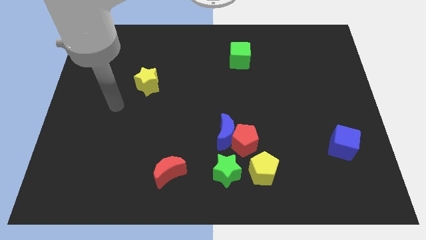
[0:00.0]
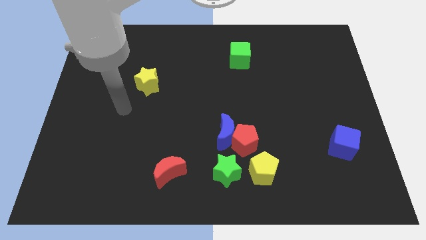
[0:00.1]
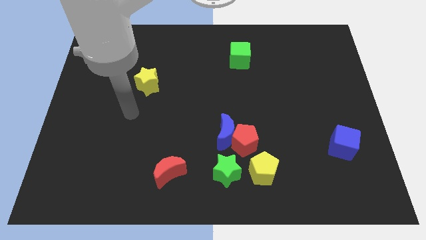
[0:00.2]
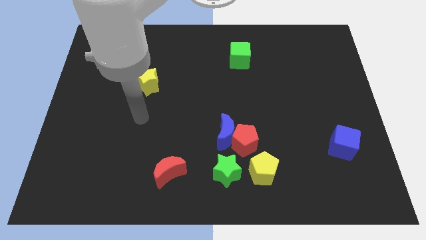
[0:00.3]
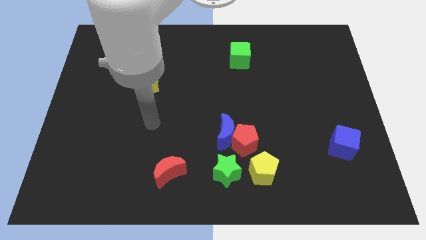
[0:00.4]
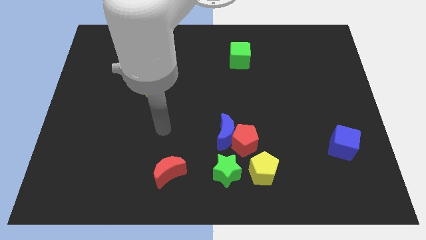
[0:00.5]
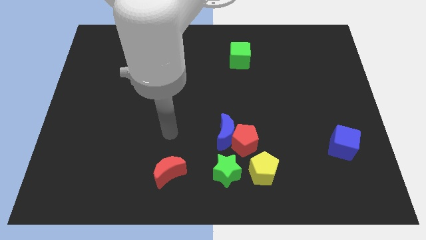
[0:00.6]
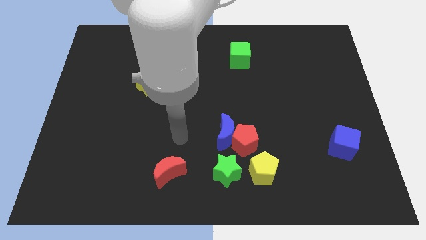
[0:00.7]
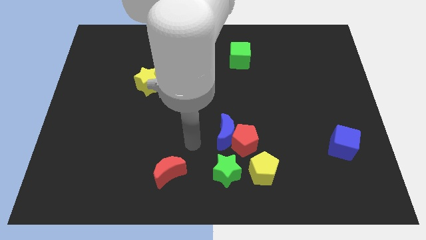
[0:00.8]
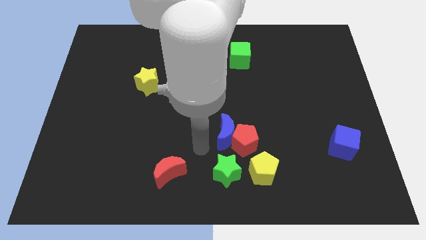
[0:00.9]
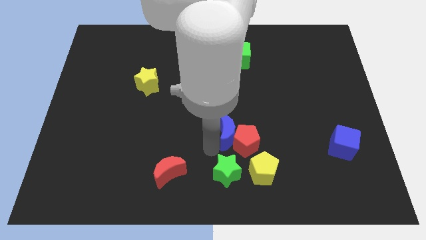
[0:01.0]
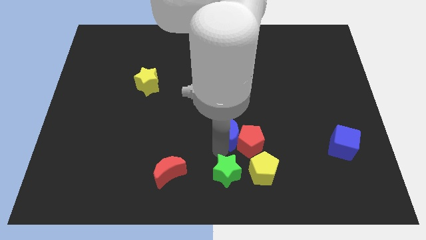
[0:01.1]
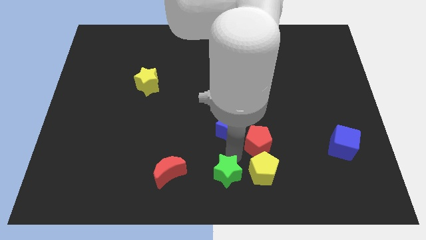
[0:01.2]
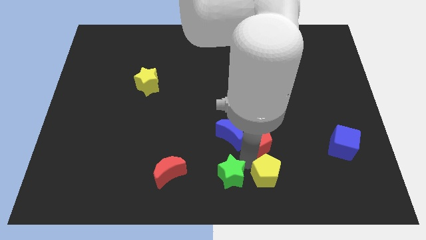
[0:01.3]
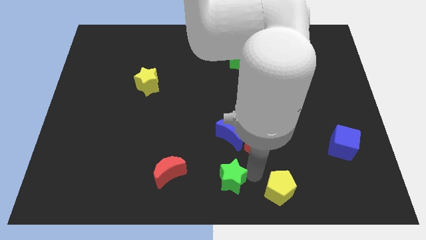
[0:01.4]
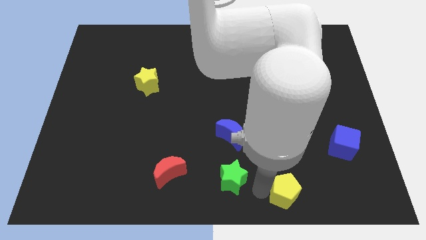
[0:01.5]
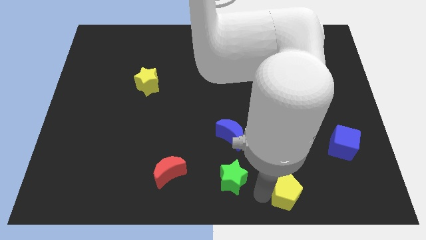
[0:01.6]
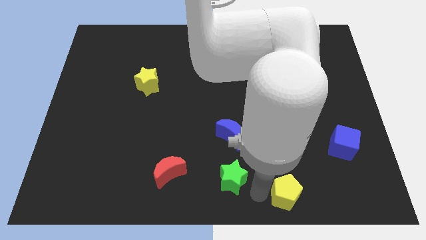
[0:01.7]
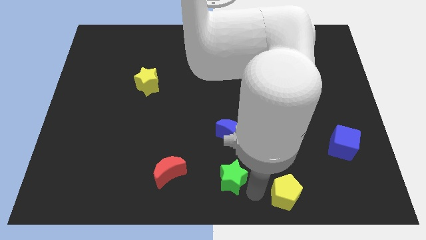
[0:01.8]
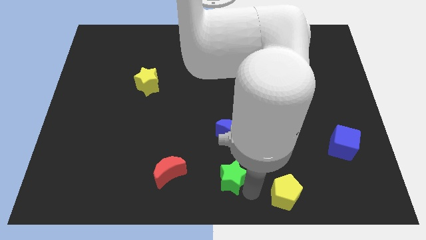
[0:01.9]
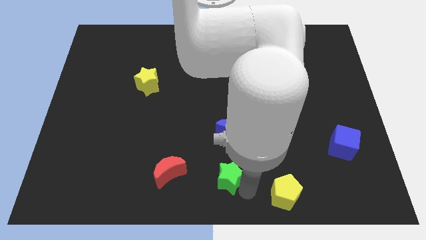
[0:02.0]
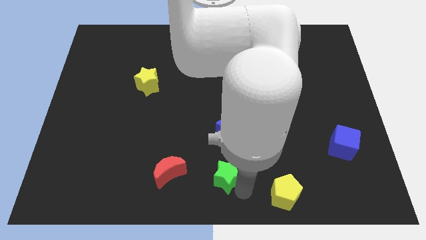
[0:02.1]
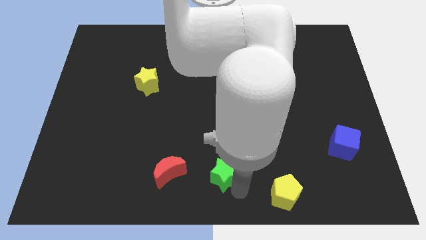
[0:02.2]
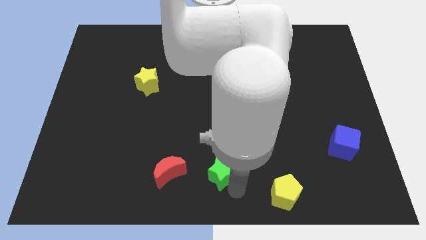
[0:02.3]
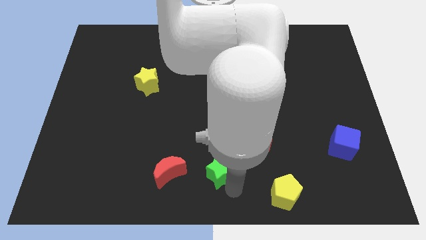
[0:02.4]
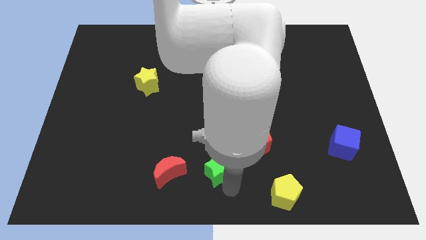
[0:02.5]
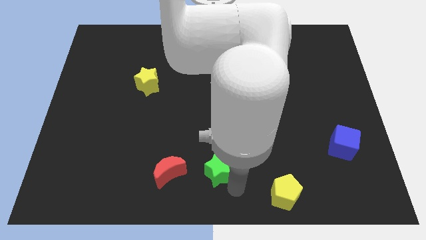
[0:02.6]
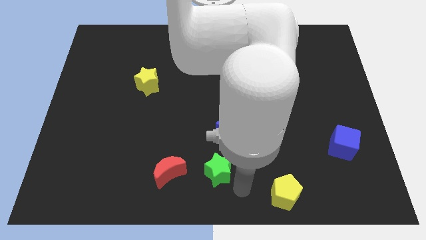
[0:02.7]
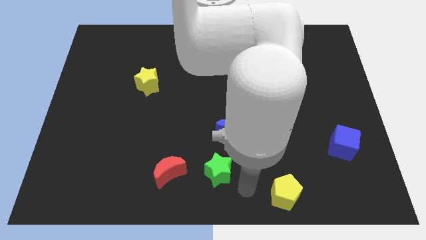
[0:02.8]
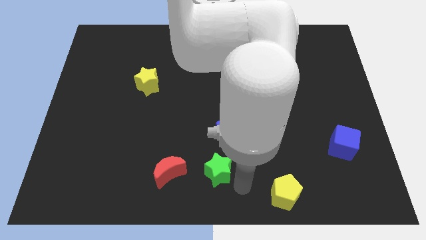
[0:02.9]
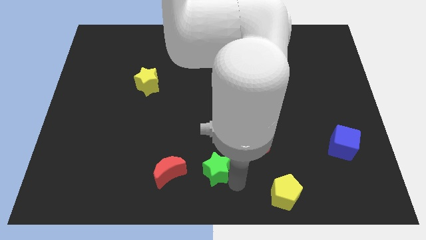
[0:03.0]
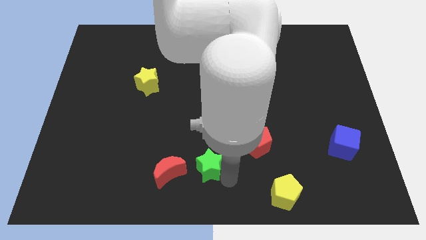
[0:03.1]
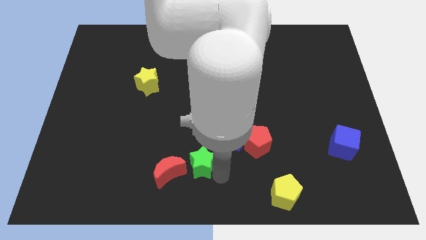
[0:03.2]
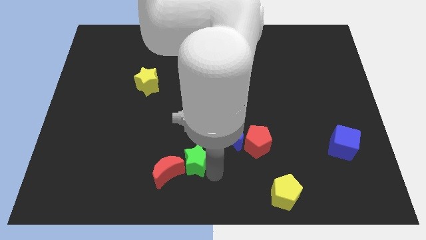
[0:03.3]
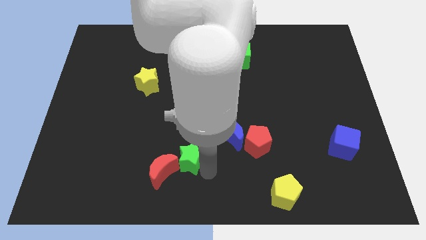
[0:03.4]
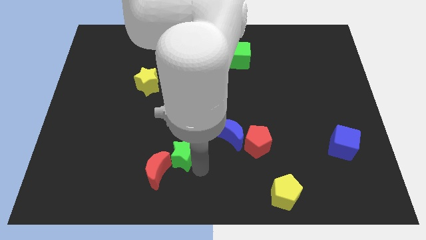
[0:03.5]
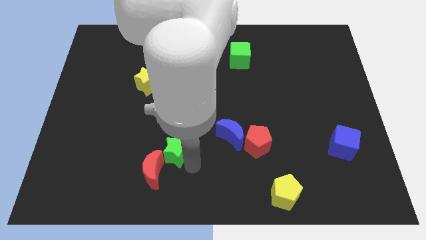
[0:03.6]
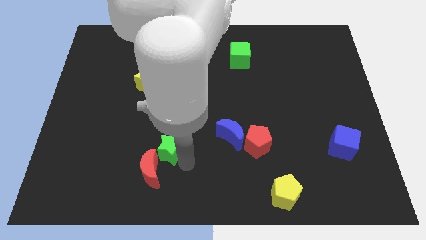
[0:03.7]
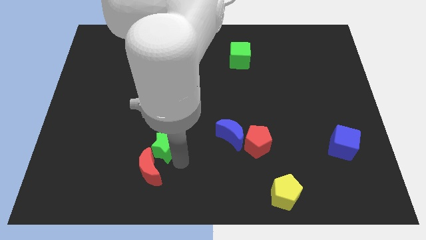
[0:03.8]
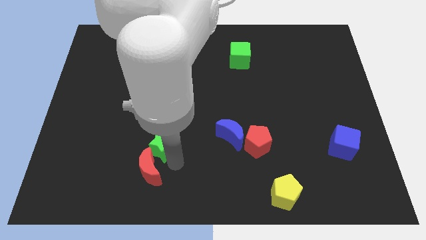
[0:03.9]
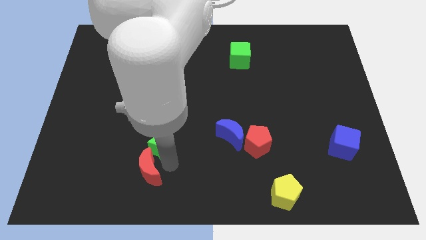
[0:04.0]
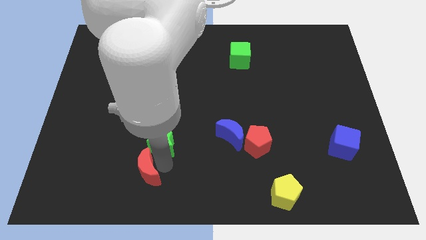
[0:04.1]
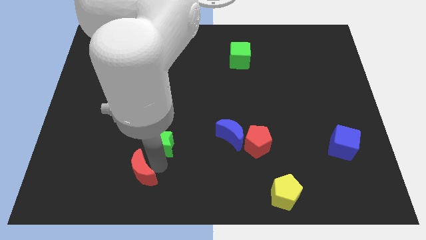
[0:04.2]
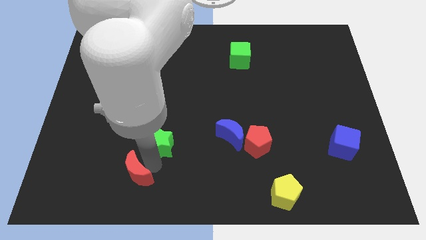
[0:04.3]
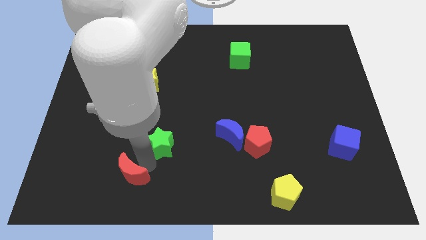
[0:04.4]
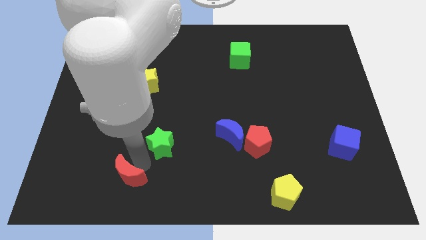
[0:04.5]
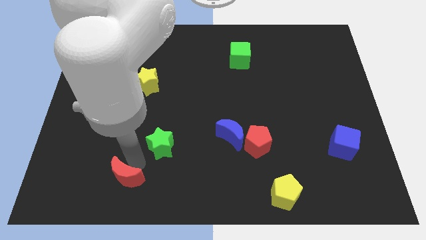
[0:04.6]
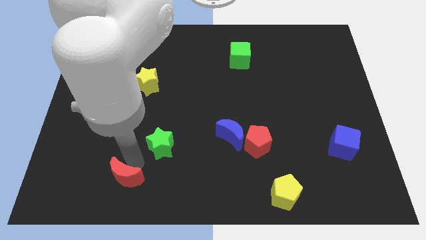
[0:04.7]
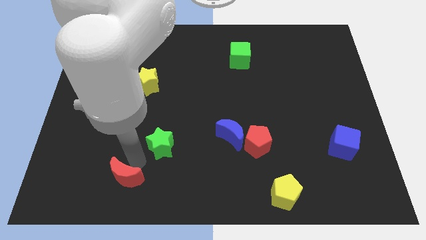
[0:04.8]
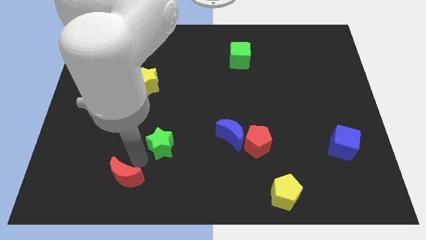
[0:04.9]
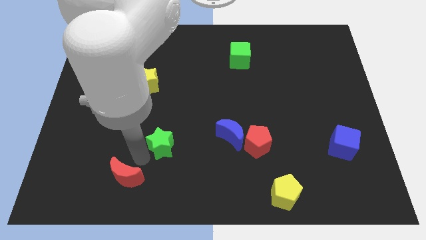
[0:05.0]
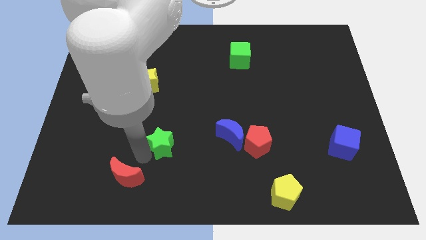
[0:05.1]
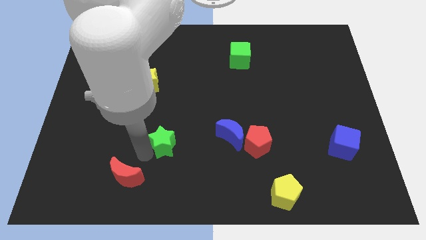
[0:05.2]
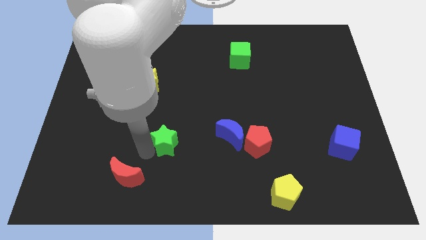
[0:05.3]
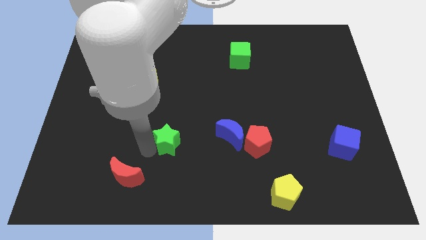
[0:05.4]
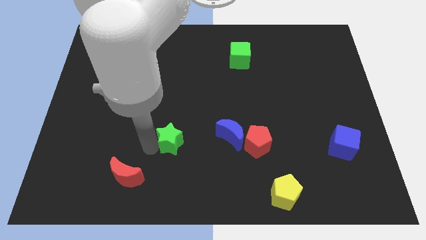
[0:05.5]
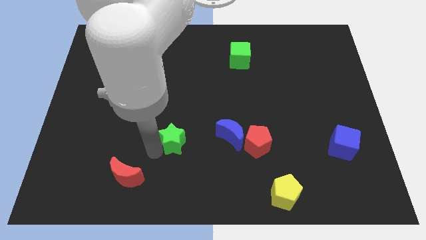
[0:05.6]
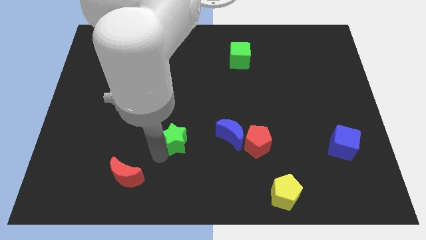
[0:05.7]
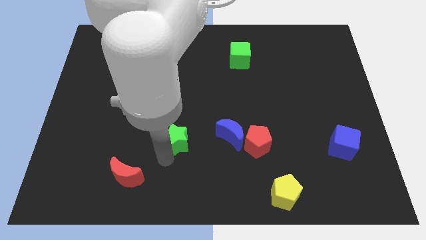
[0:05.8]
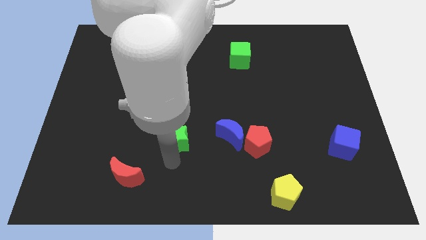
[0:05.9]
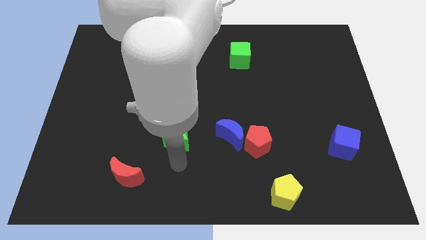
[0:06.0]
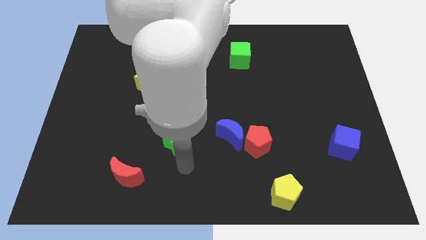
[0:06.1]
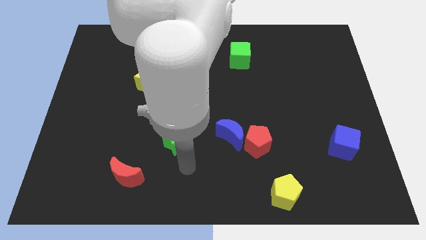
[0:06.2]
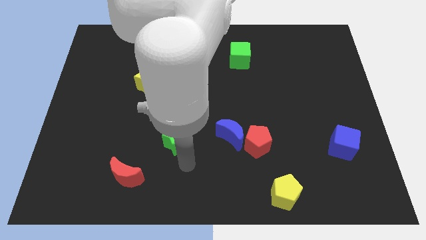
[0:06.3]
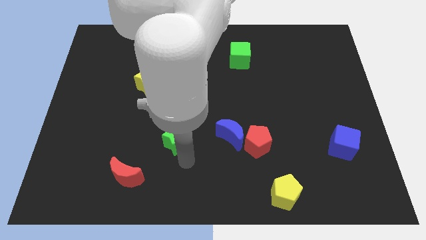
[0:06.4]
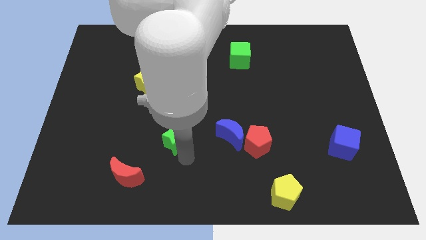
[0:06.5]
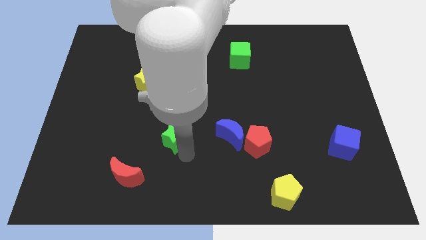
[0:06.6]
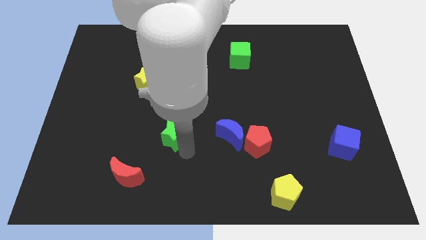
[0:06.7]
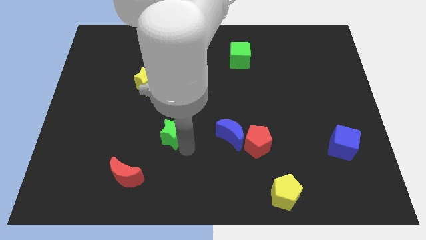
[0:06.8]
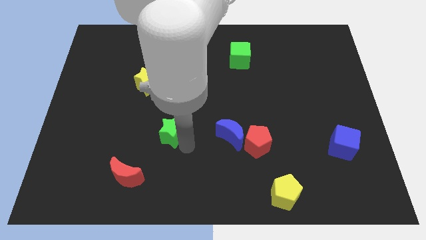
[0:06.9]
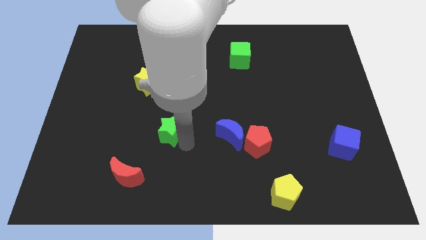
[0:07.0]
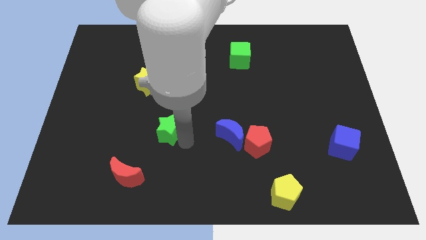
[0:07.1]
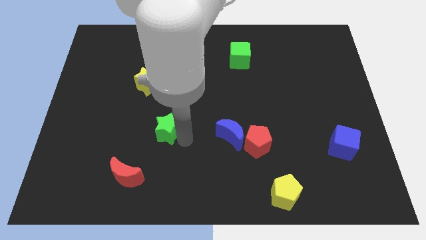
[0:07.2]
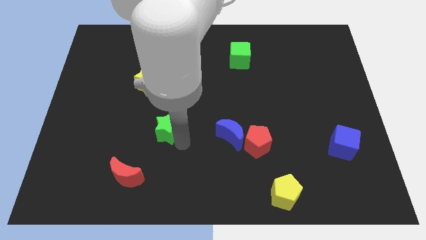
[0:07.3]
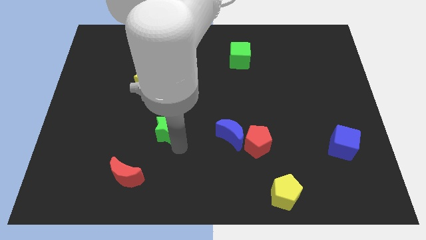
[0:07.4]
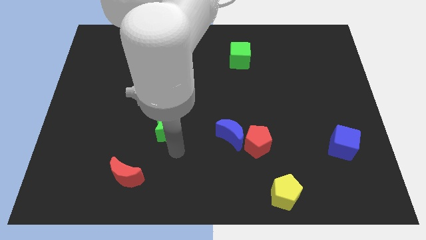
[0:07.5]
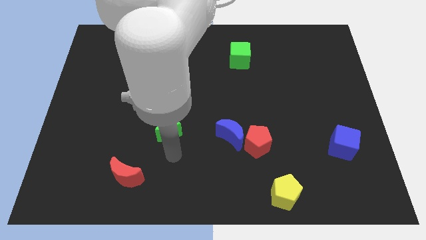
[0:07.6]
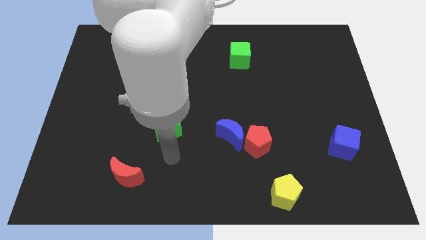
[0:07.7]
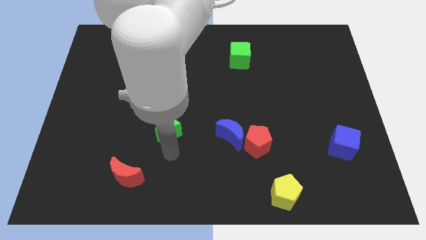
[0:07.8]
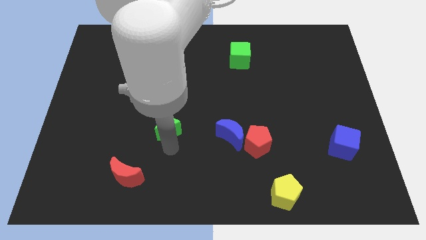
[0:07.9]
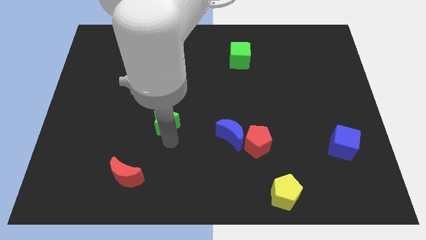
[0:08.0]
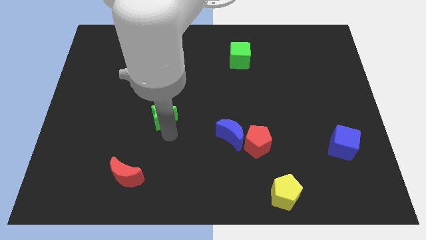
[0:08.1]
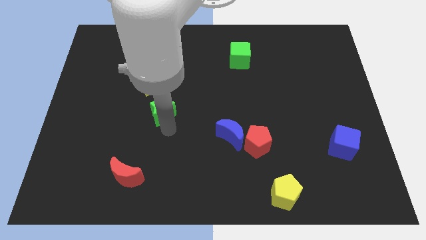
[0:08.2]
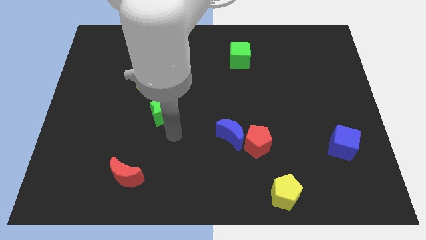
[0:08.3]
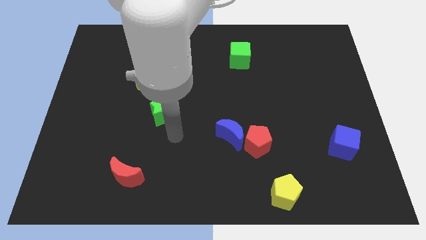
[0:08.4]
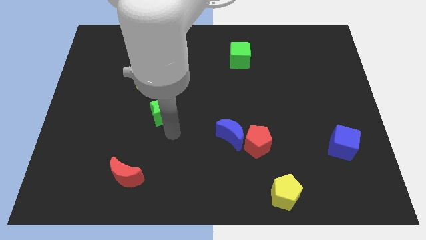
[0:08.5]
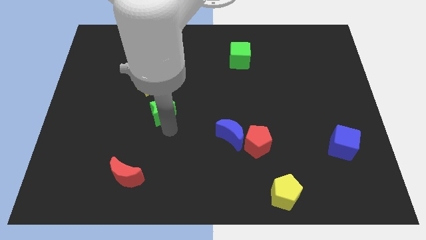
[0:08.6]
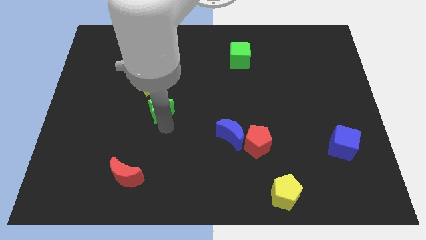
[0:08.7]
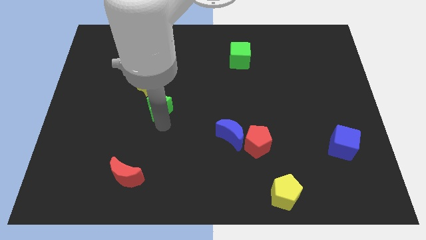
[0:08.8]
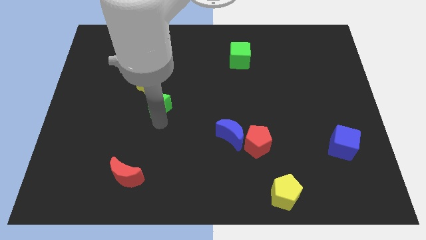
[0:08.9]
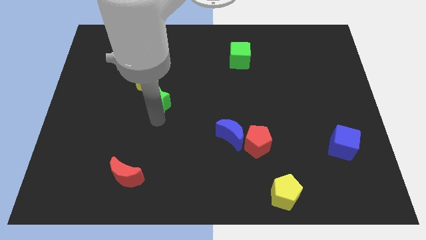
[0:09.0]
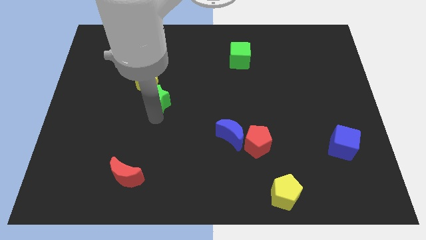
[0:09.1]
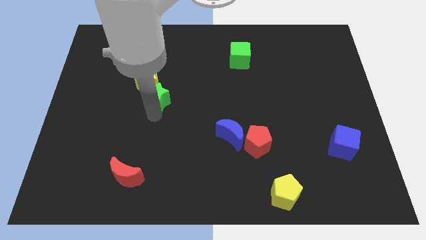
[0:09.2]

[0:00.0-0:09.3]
slide the green star to the yellow star
